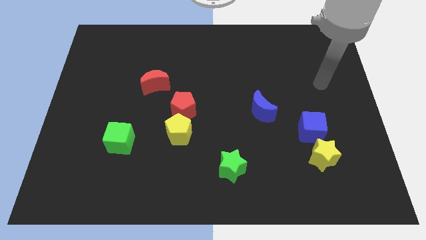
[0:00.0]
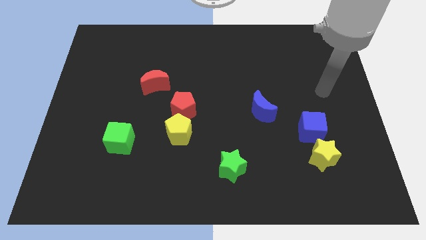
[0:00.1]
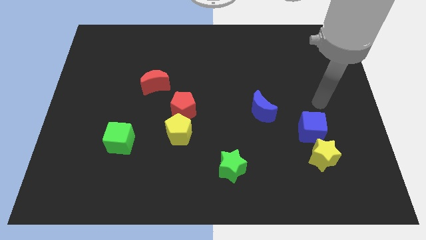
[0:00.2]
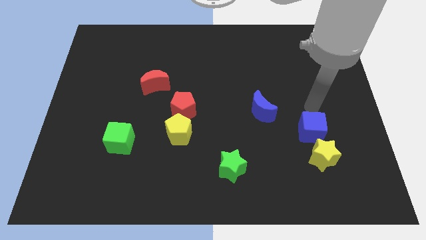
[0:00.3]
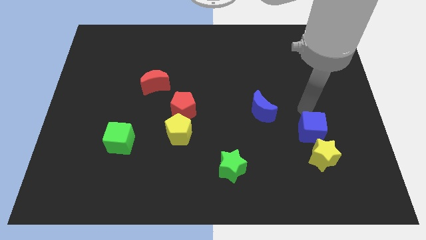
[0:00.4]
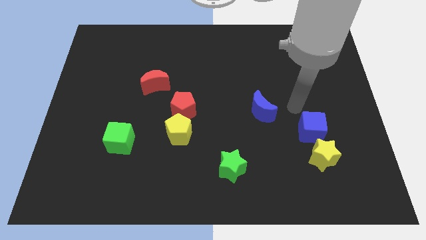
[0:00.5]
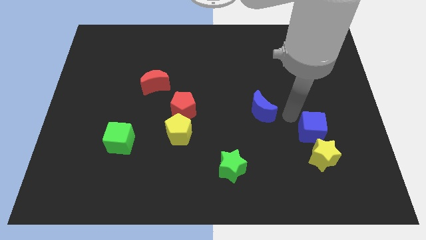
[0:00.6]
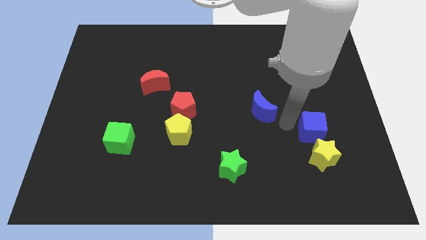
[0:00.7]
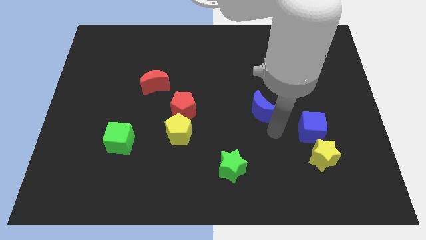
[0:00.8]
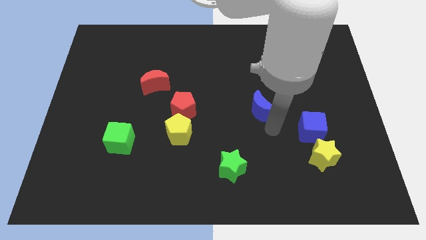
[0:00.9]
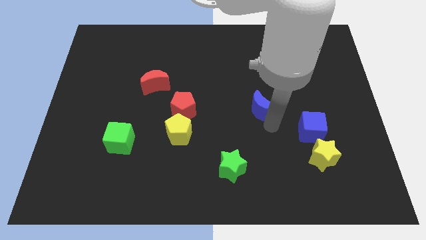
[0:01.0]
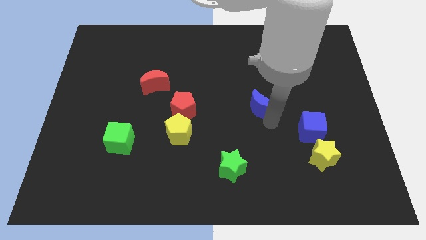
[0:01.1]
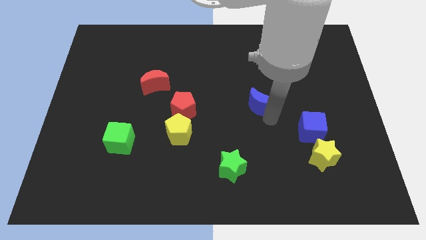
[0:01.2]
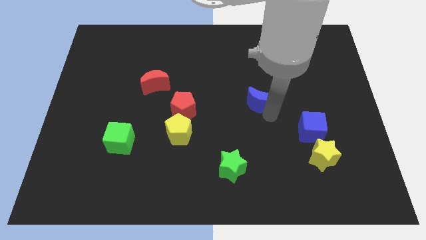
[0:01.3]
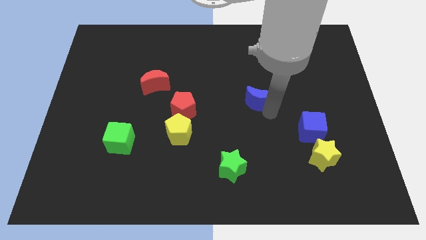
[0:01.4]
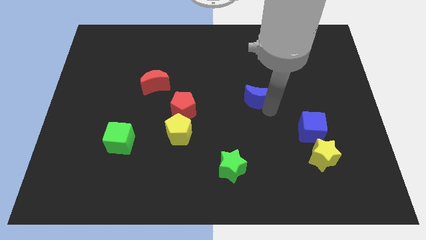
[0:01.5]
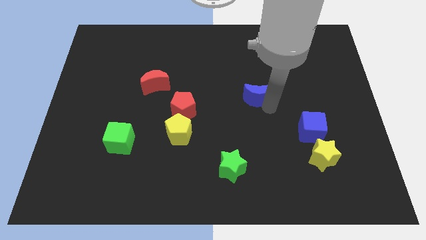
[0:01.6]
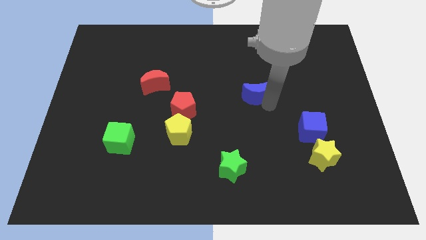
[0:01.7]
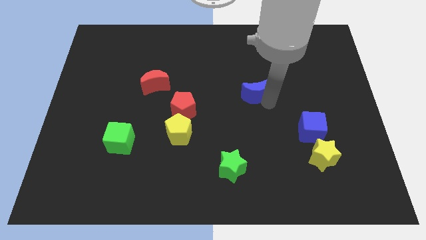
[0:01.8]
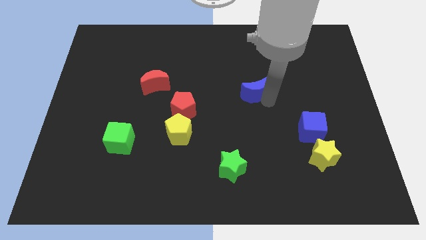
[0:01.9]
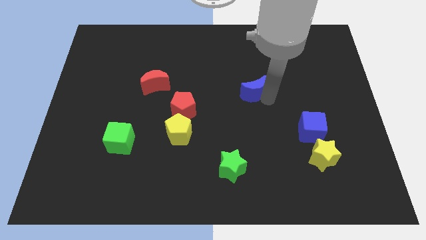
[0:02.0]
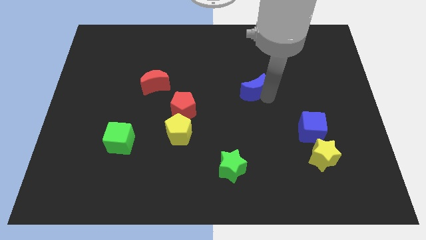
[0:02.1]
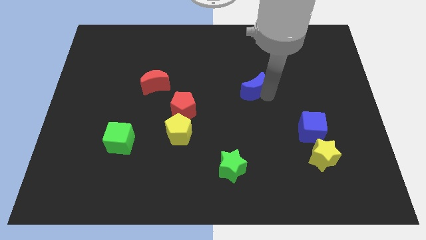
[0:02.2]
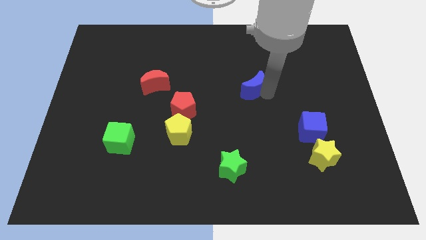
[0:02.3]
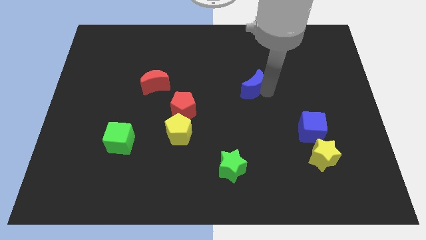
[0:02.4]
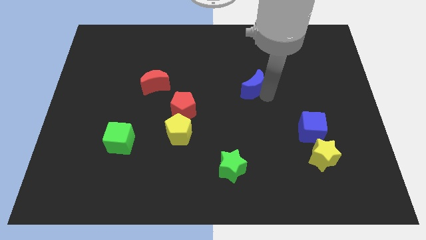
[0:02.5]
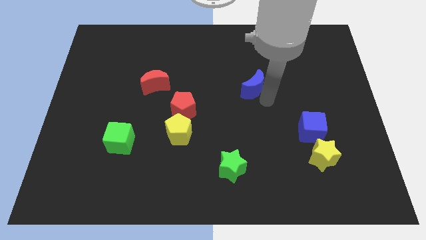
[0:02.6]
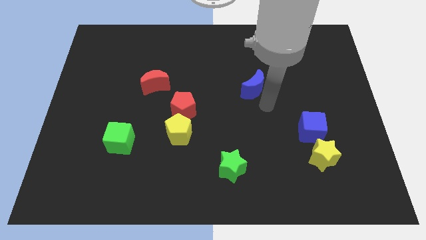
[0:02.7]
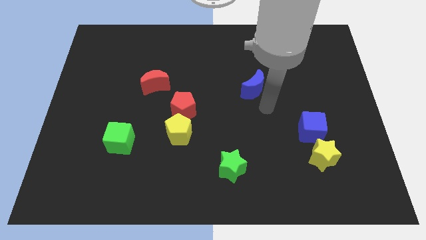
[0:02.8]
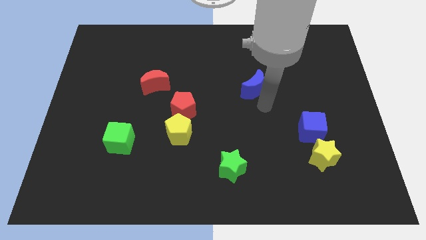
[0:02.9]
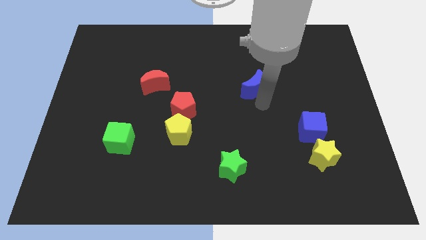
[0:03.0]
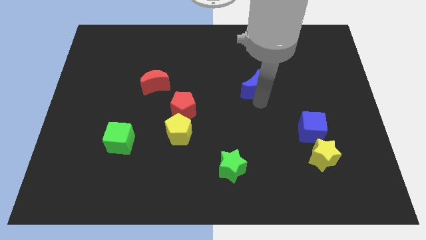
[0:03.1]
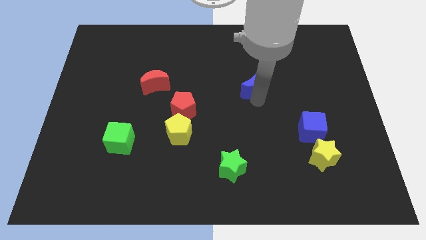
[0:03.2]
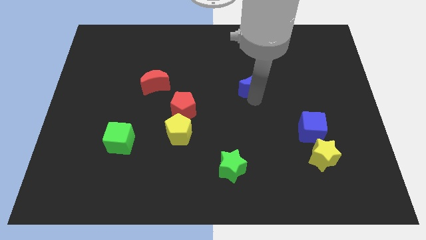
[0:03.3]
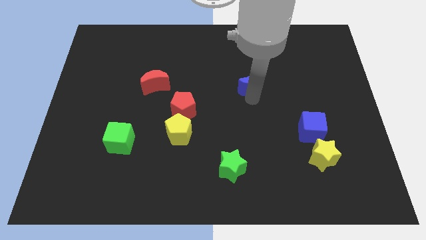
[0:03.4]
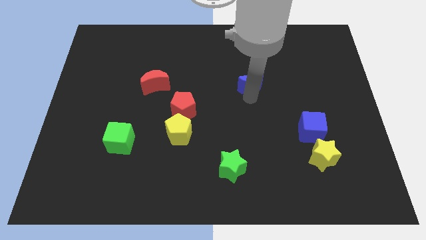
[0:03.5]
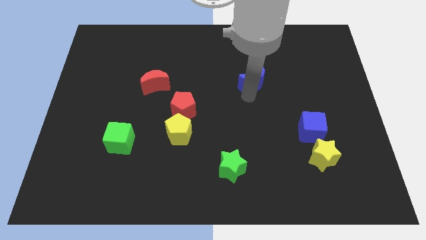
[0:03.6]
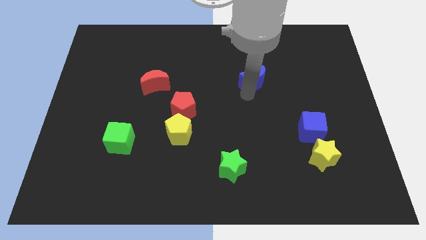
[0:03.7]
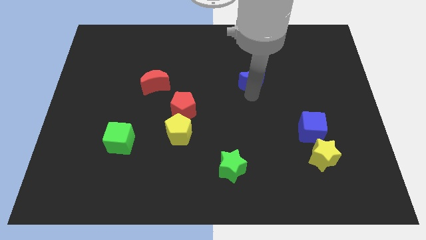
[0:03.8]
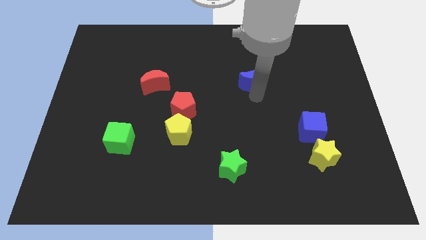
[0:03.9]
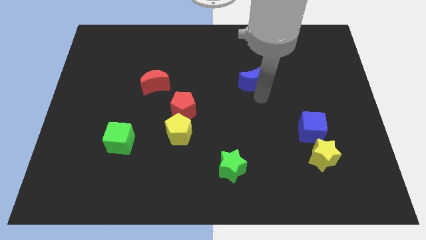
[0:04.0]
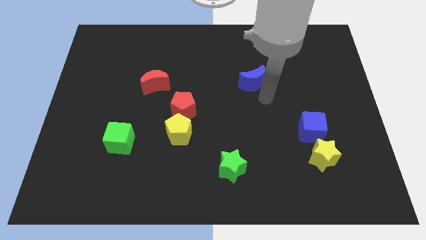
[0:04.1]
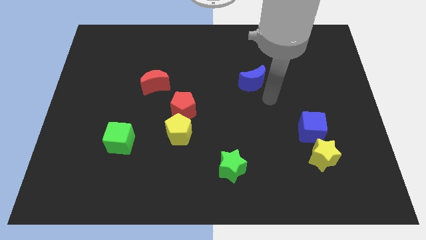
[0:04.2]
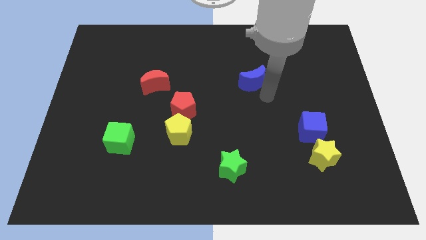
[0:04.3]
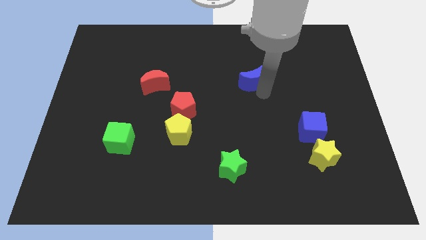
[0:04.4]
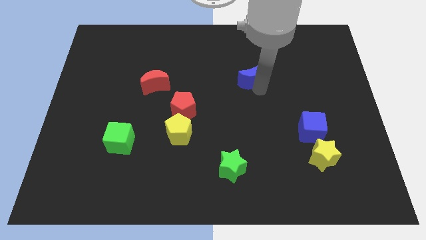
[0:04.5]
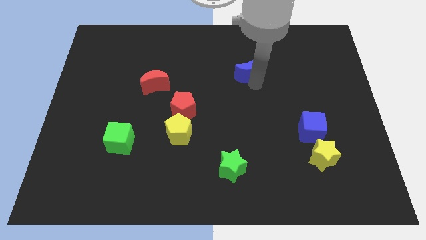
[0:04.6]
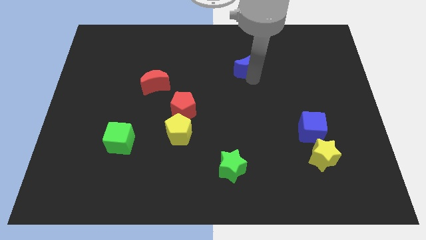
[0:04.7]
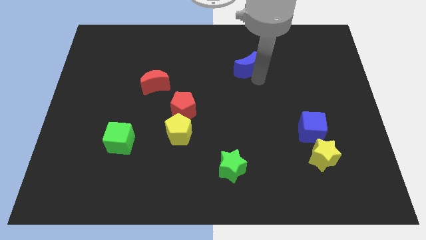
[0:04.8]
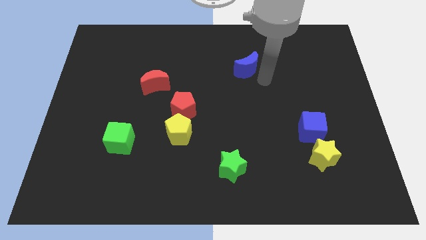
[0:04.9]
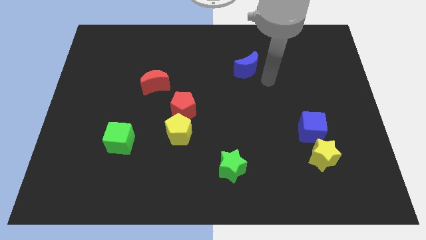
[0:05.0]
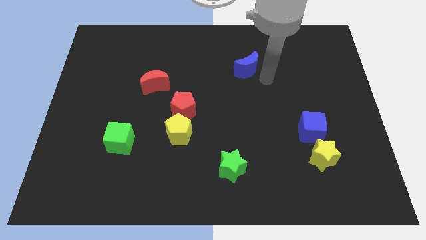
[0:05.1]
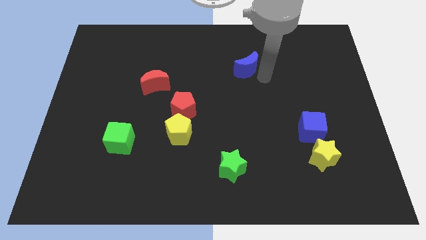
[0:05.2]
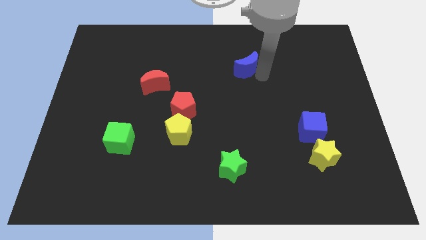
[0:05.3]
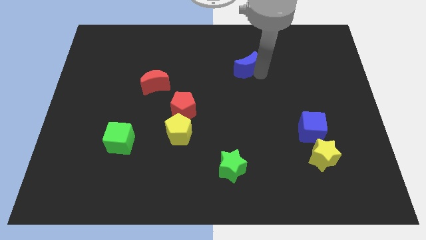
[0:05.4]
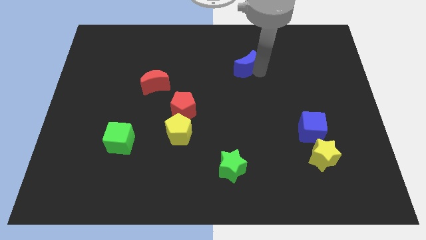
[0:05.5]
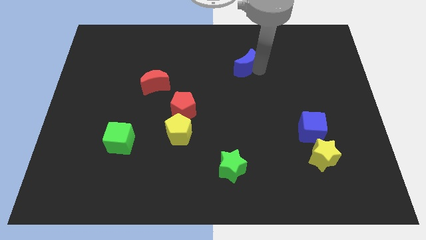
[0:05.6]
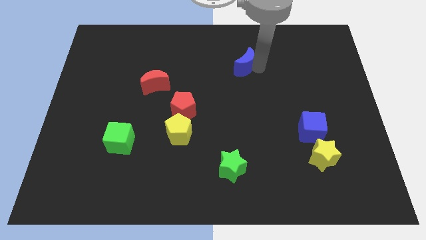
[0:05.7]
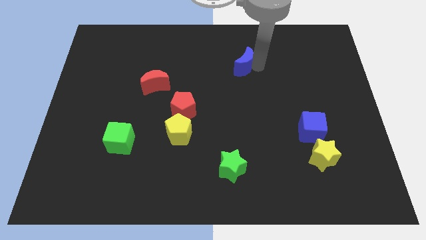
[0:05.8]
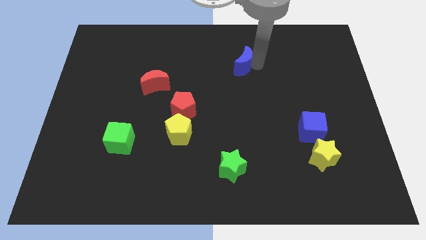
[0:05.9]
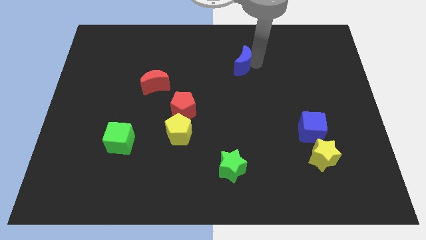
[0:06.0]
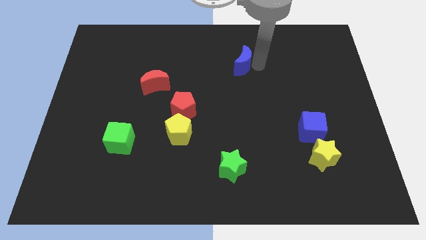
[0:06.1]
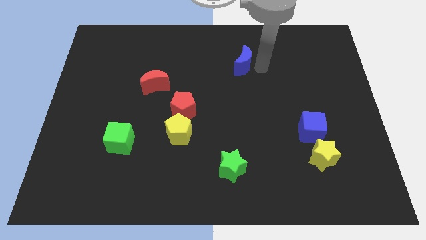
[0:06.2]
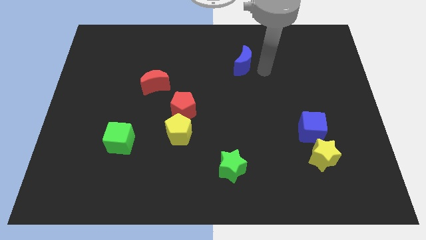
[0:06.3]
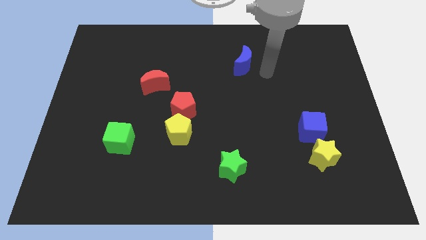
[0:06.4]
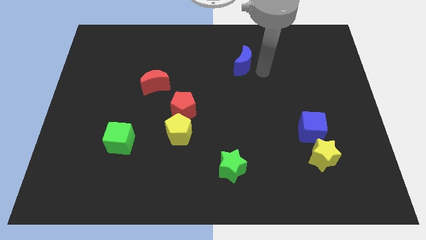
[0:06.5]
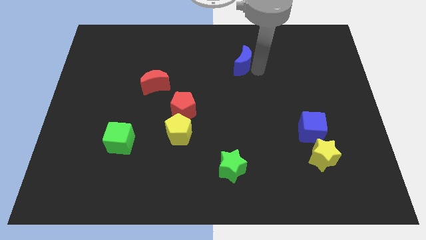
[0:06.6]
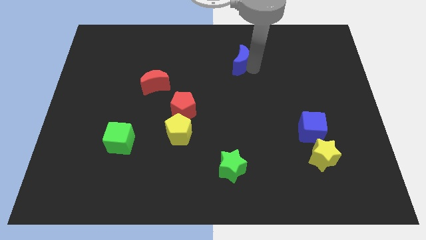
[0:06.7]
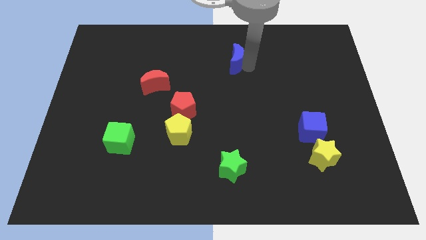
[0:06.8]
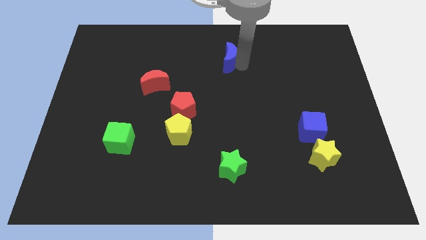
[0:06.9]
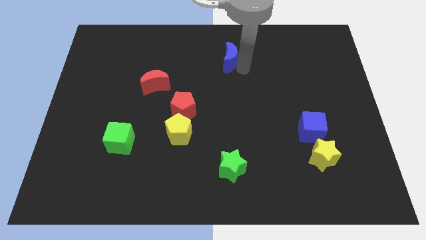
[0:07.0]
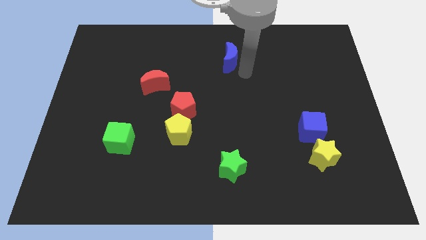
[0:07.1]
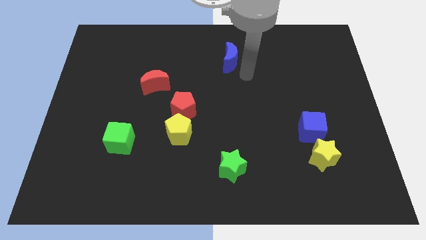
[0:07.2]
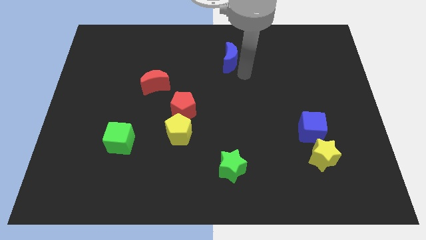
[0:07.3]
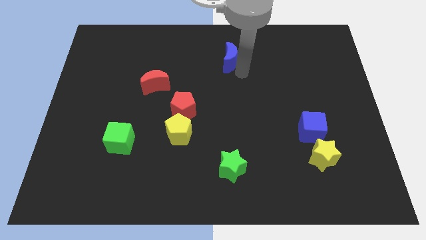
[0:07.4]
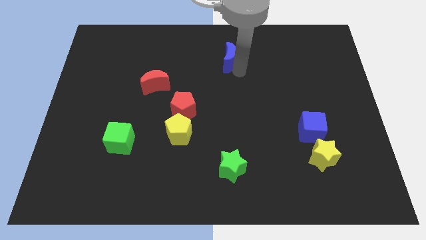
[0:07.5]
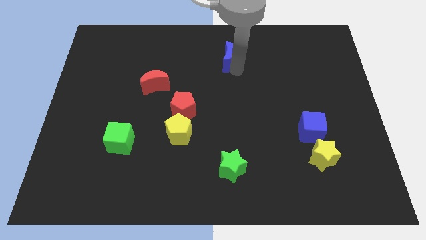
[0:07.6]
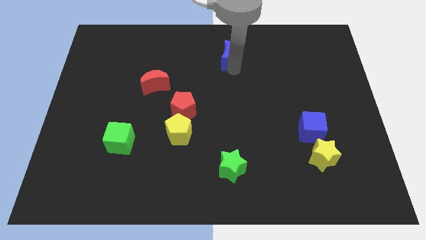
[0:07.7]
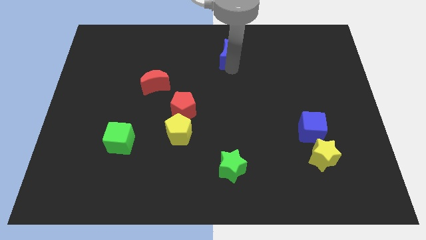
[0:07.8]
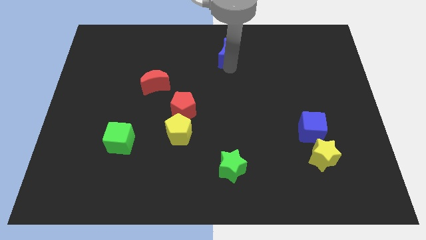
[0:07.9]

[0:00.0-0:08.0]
slide the blue moon to the top
